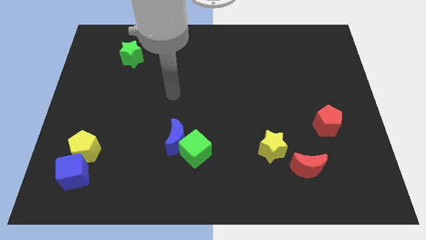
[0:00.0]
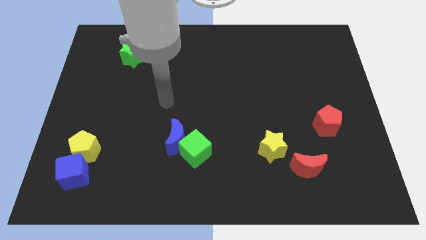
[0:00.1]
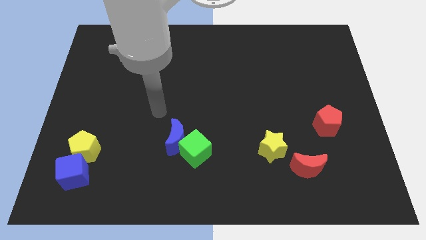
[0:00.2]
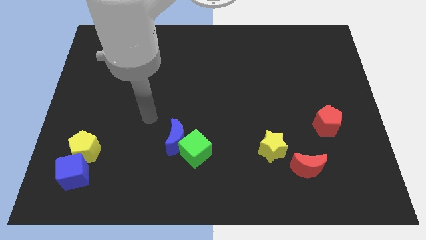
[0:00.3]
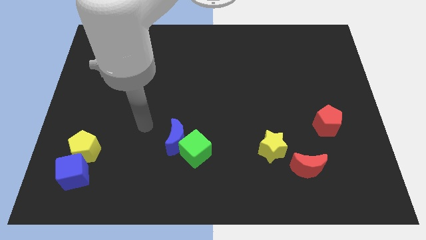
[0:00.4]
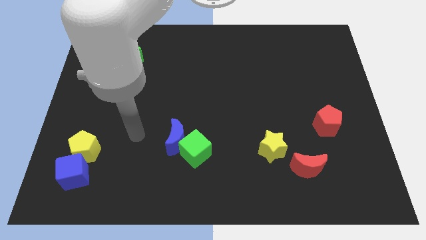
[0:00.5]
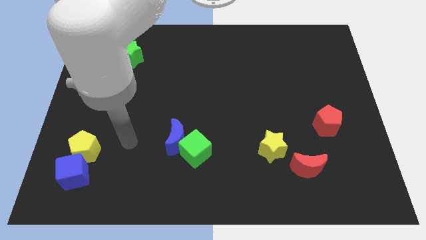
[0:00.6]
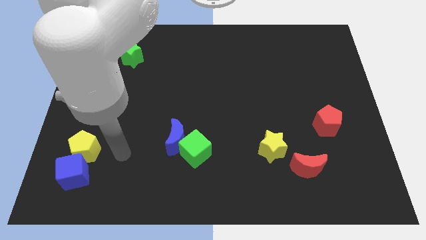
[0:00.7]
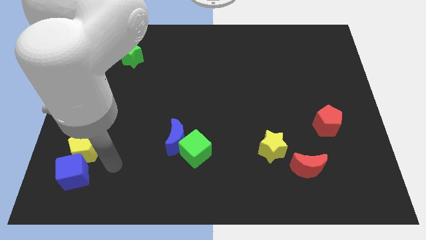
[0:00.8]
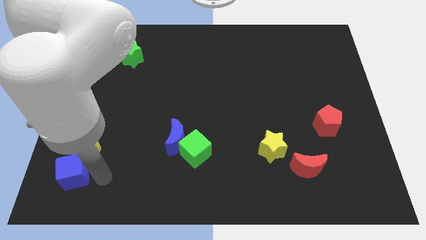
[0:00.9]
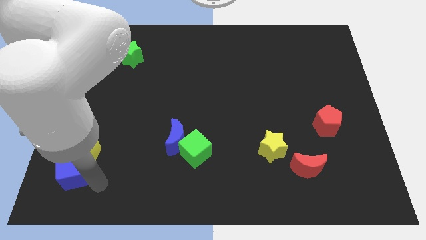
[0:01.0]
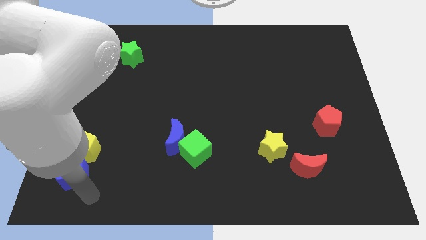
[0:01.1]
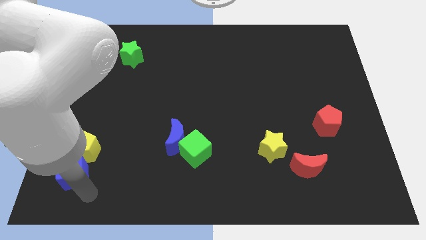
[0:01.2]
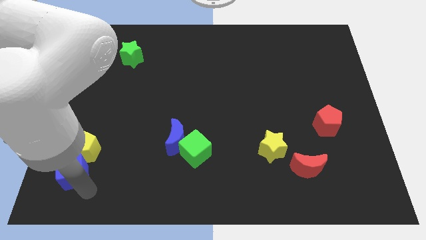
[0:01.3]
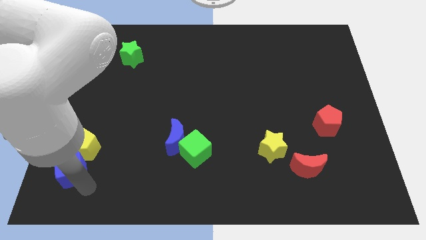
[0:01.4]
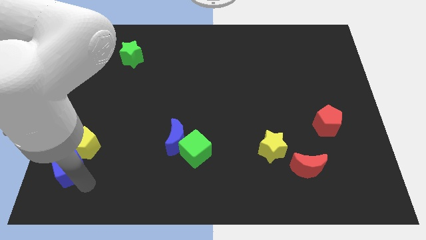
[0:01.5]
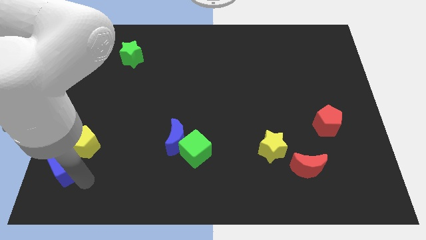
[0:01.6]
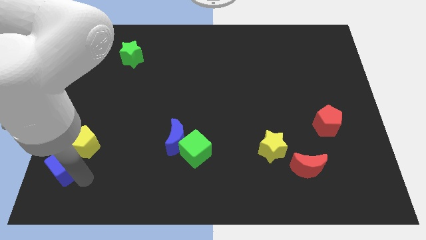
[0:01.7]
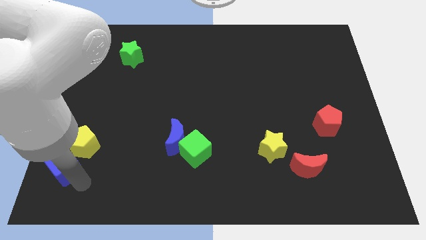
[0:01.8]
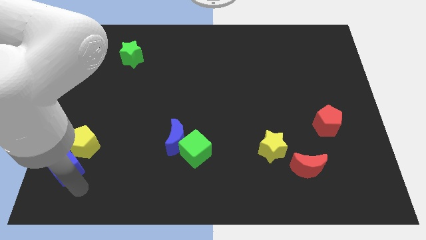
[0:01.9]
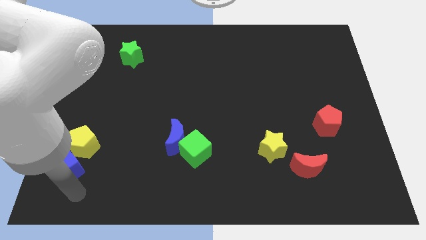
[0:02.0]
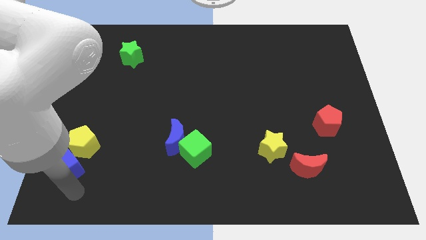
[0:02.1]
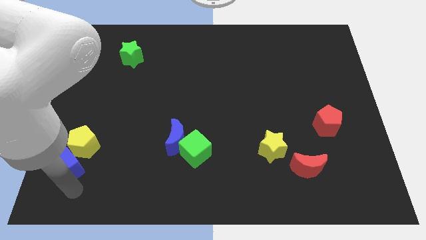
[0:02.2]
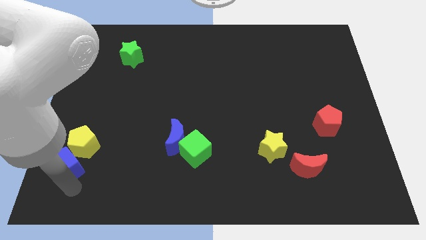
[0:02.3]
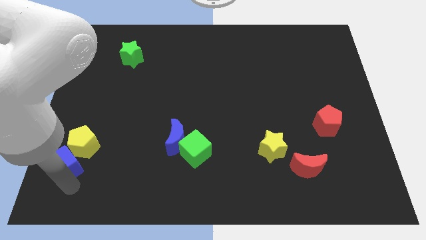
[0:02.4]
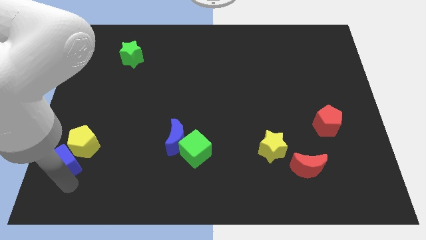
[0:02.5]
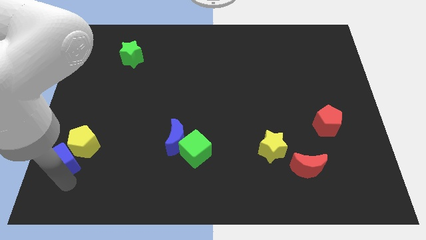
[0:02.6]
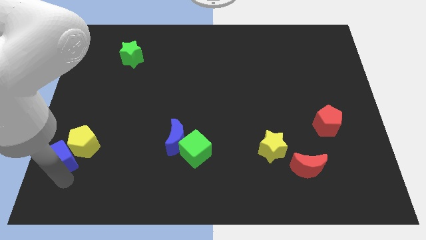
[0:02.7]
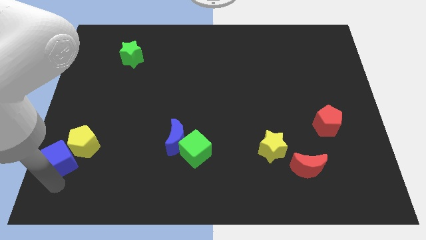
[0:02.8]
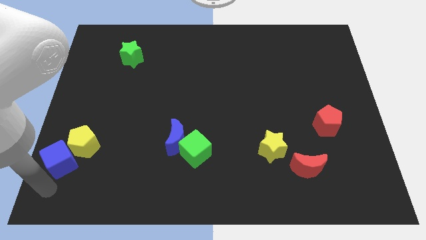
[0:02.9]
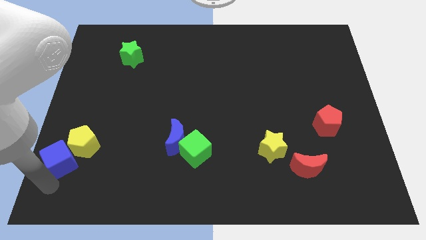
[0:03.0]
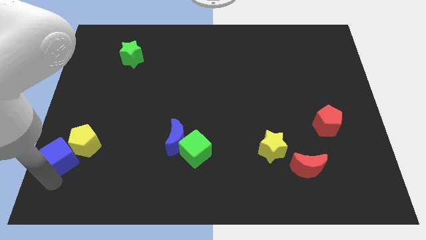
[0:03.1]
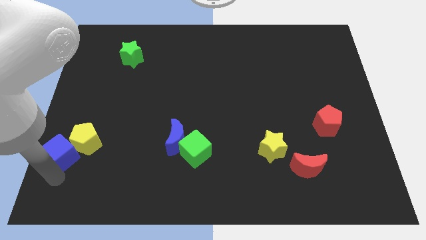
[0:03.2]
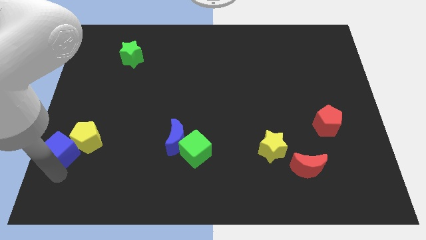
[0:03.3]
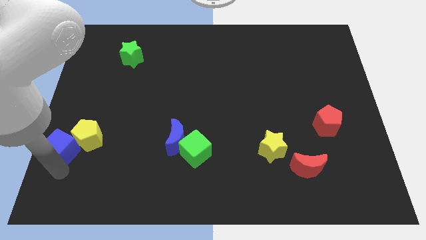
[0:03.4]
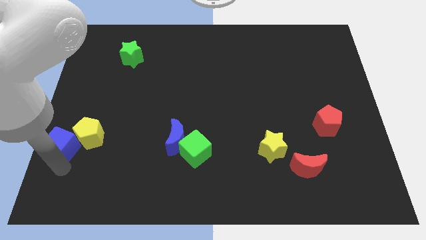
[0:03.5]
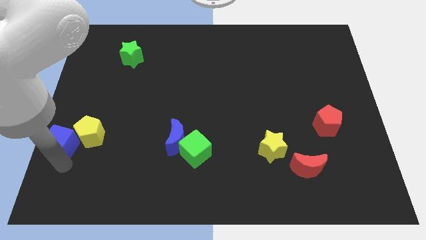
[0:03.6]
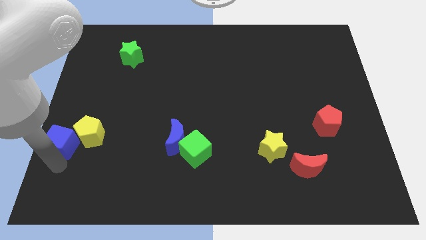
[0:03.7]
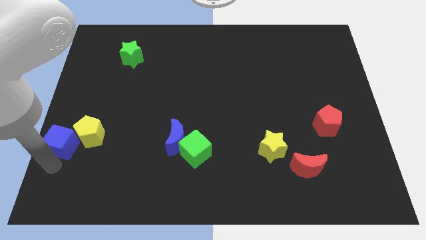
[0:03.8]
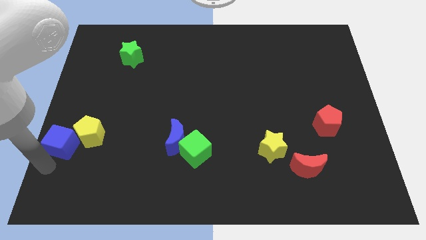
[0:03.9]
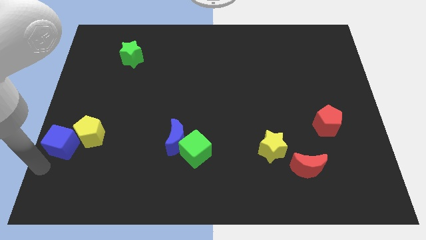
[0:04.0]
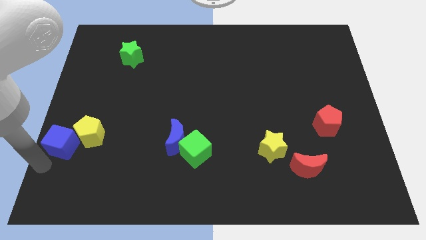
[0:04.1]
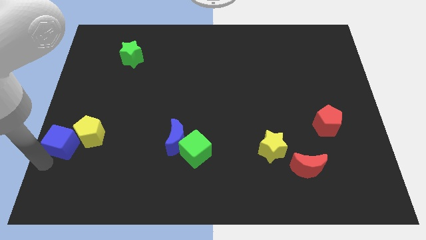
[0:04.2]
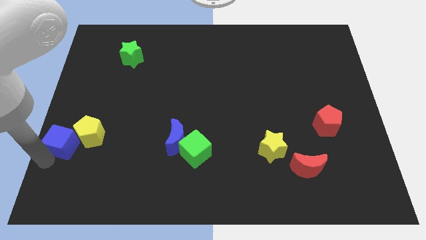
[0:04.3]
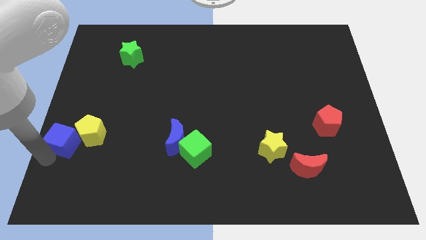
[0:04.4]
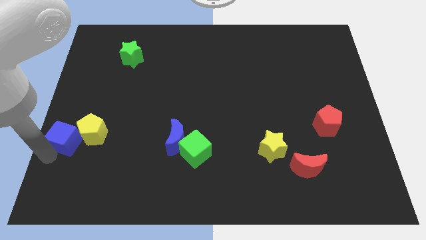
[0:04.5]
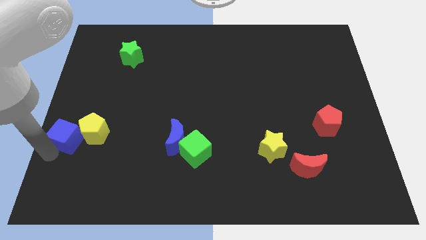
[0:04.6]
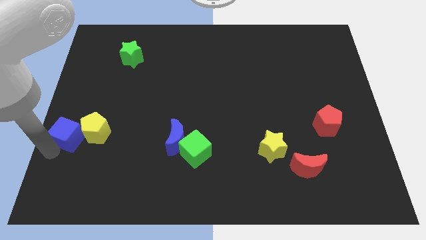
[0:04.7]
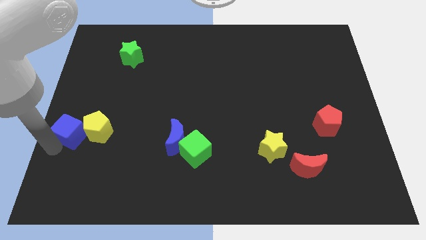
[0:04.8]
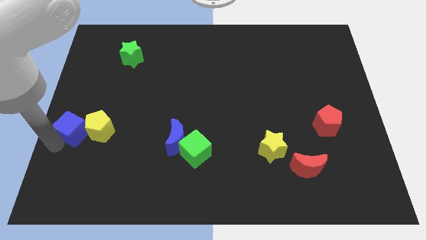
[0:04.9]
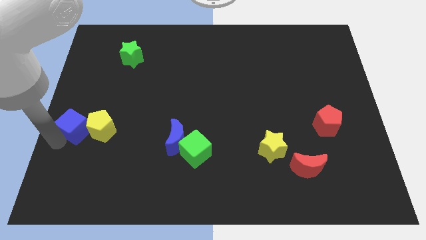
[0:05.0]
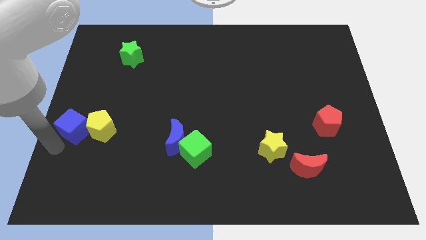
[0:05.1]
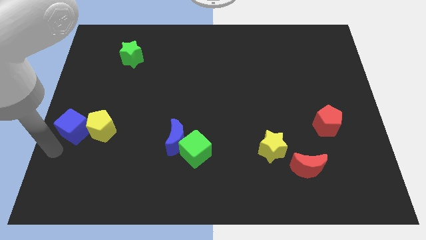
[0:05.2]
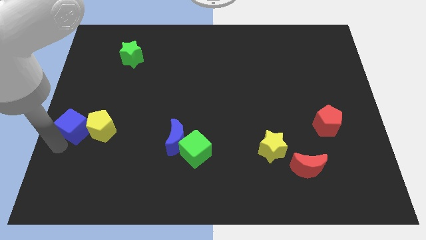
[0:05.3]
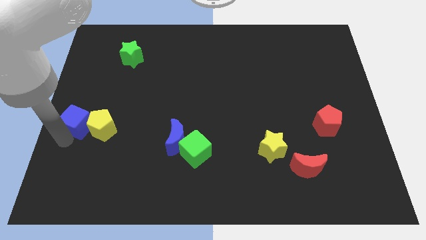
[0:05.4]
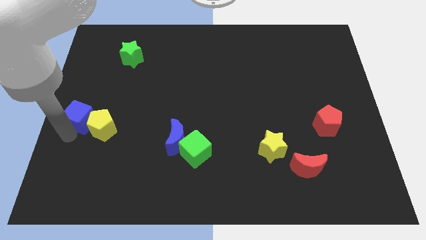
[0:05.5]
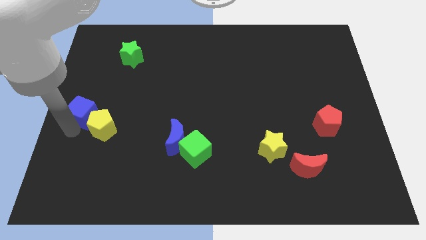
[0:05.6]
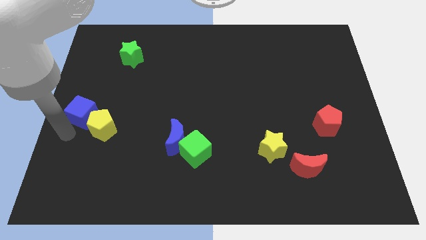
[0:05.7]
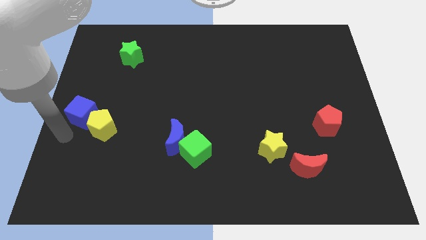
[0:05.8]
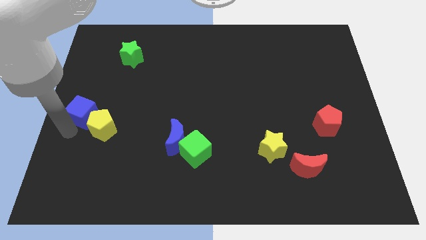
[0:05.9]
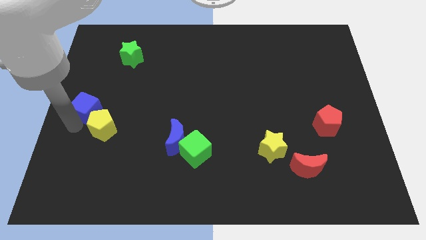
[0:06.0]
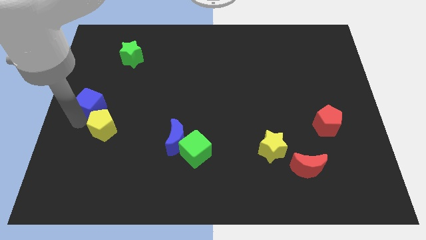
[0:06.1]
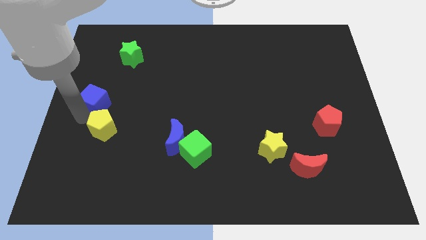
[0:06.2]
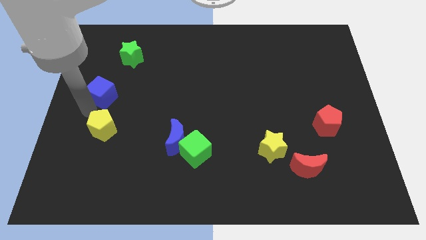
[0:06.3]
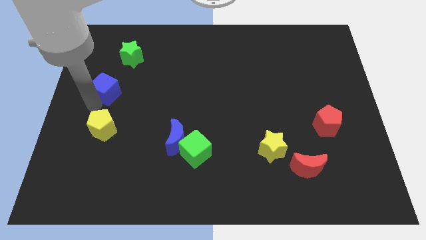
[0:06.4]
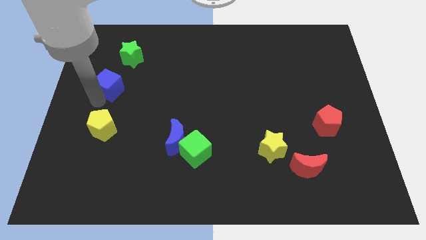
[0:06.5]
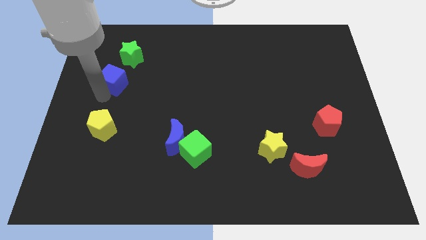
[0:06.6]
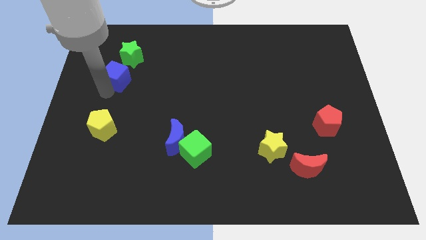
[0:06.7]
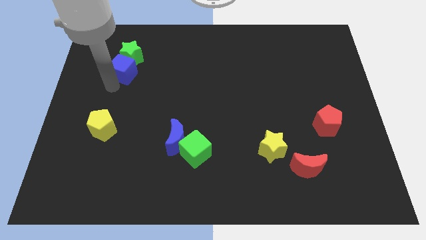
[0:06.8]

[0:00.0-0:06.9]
put the blue cube to the green star
